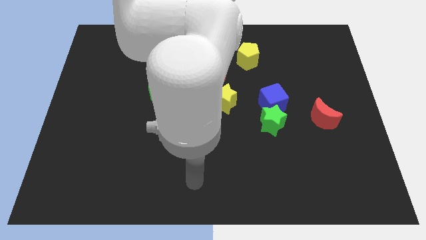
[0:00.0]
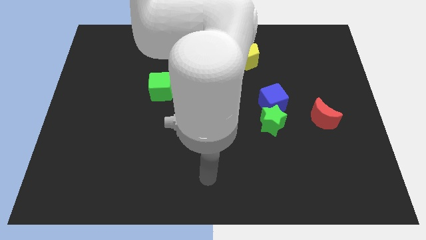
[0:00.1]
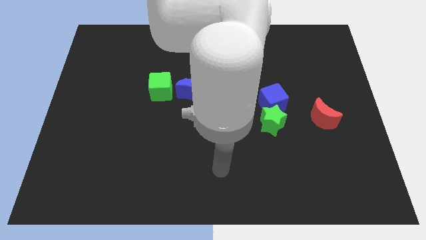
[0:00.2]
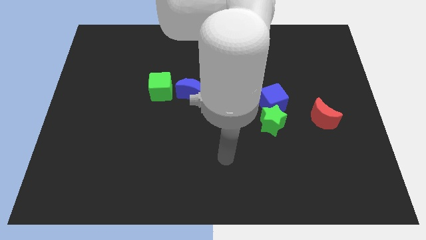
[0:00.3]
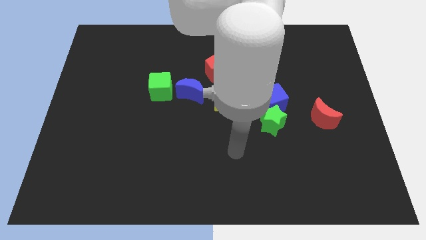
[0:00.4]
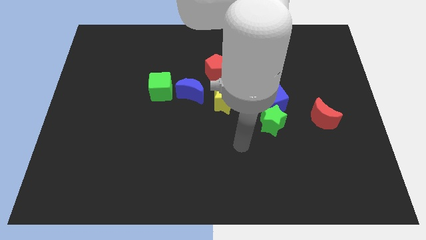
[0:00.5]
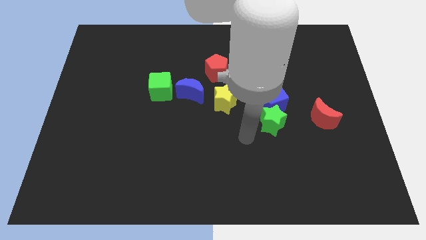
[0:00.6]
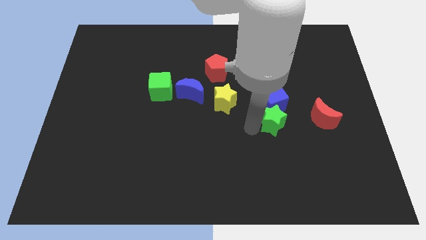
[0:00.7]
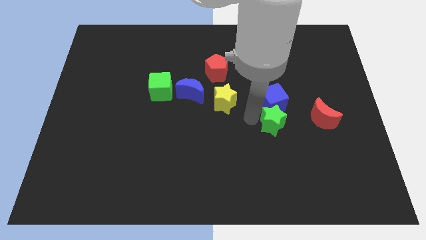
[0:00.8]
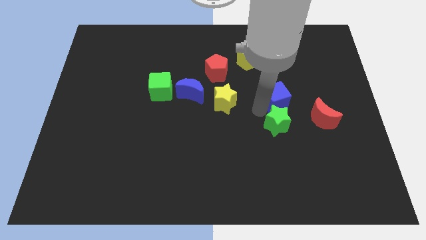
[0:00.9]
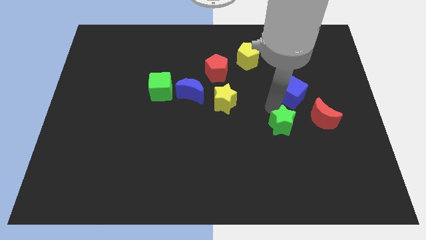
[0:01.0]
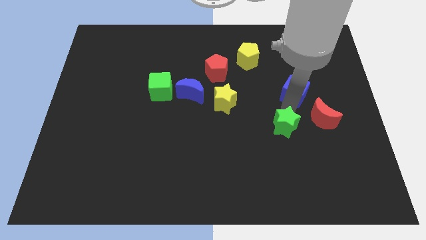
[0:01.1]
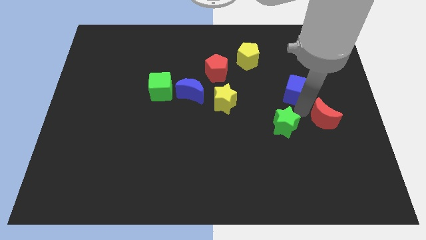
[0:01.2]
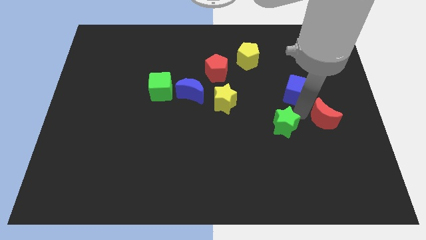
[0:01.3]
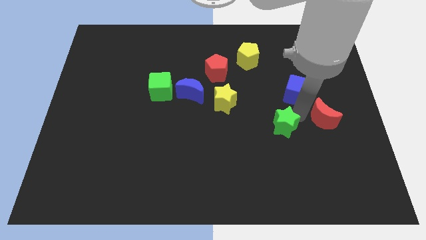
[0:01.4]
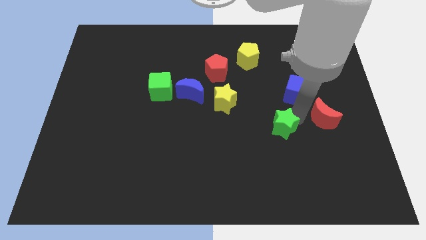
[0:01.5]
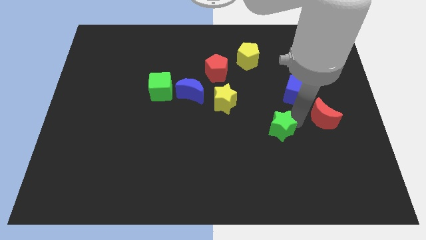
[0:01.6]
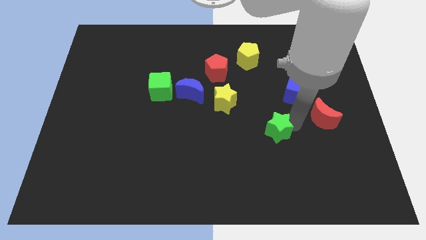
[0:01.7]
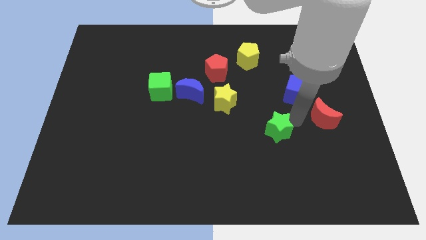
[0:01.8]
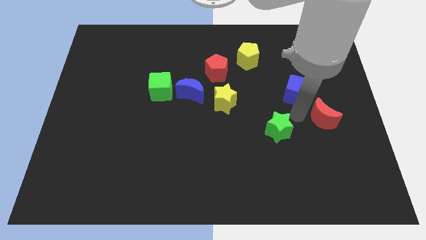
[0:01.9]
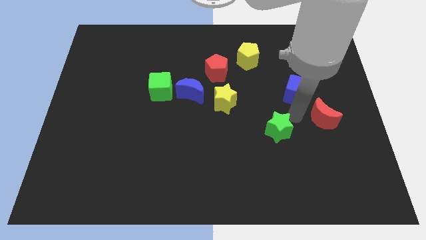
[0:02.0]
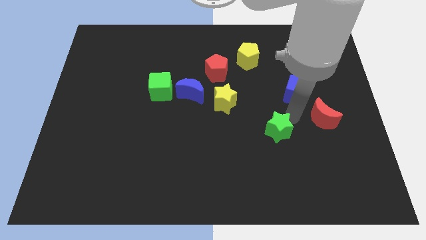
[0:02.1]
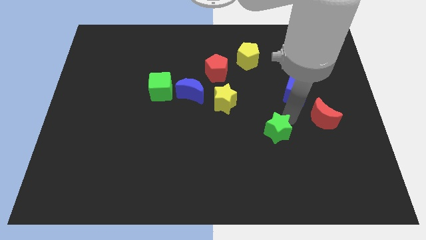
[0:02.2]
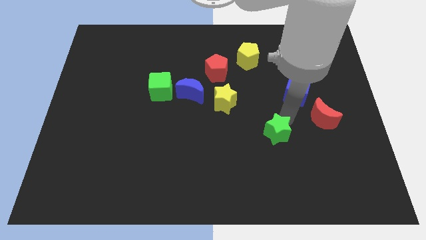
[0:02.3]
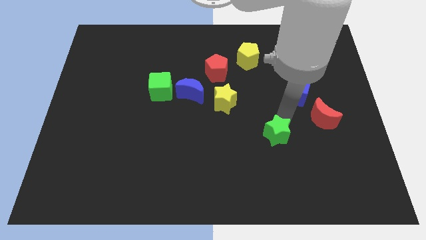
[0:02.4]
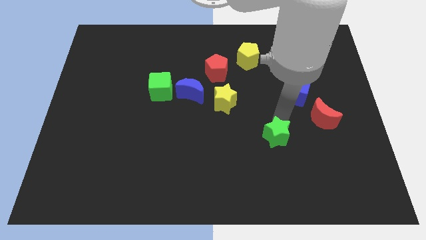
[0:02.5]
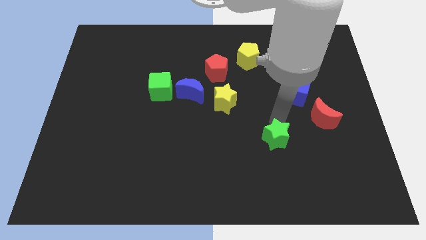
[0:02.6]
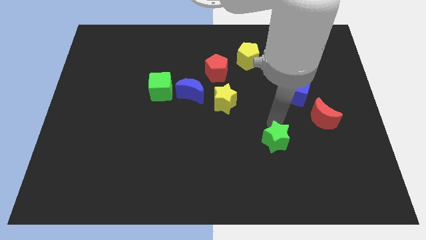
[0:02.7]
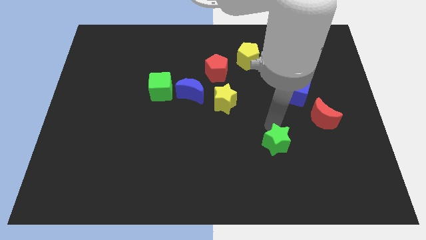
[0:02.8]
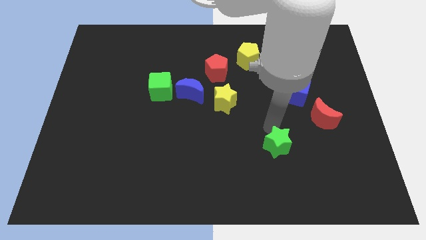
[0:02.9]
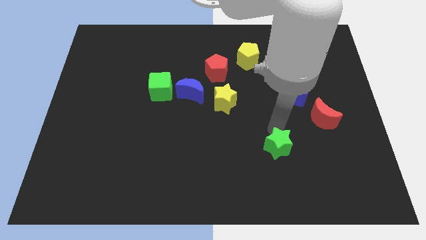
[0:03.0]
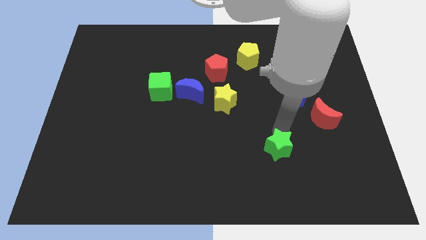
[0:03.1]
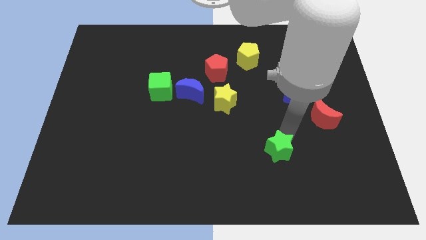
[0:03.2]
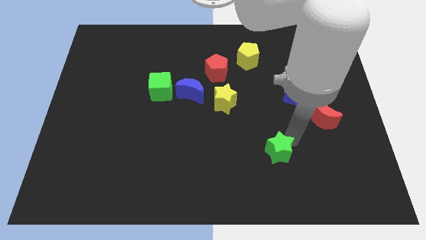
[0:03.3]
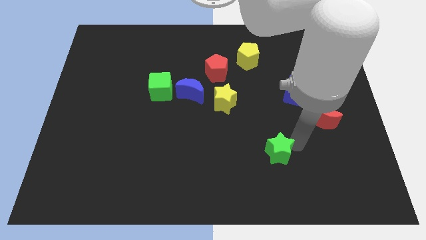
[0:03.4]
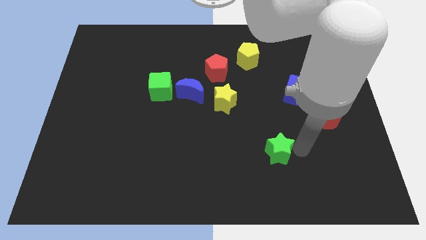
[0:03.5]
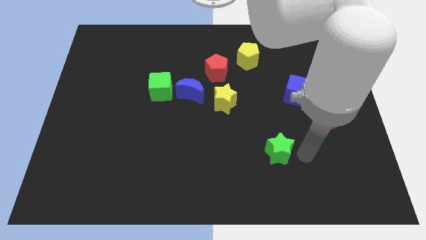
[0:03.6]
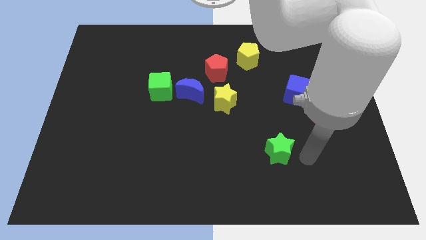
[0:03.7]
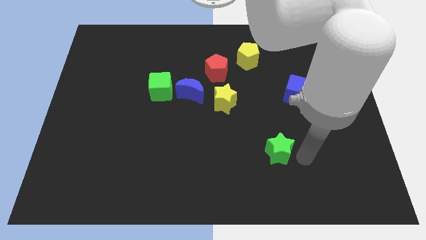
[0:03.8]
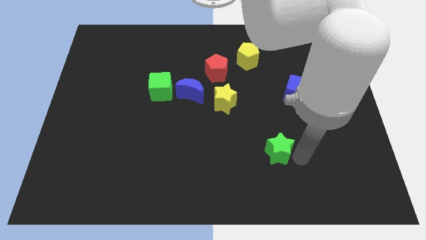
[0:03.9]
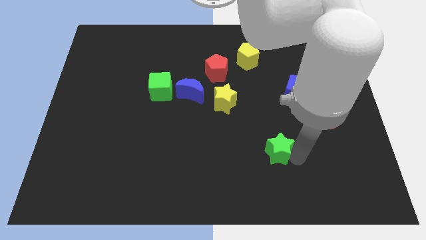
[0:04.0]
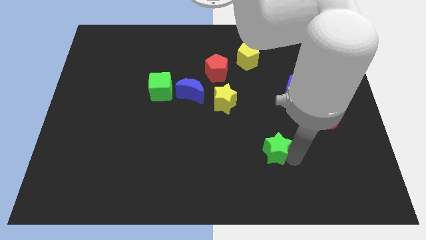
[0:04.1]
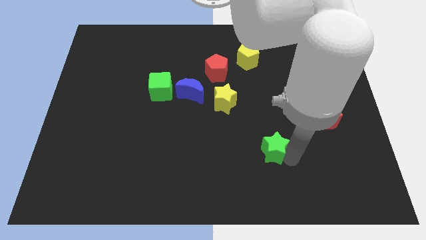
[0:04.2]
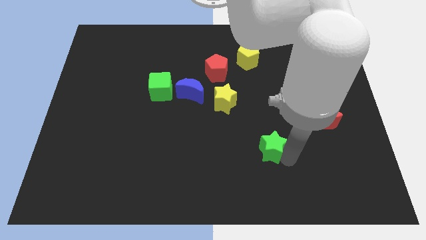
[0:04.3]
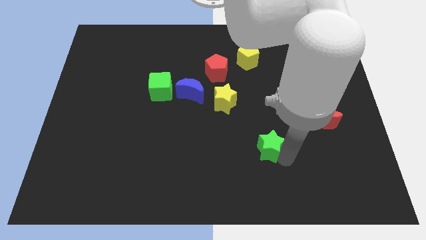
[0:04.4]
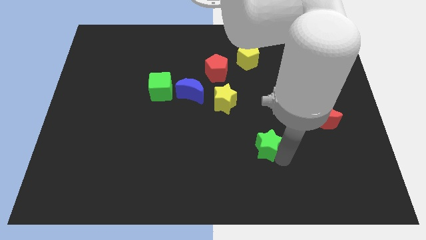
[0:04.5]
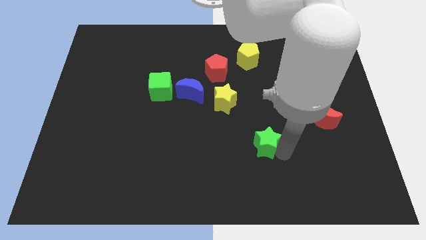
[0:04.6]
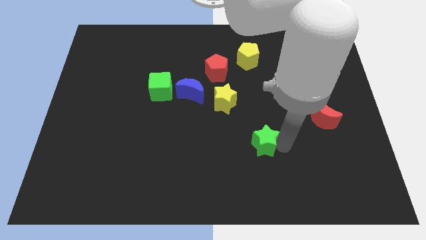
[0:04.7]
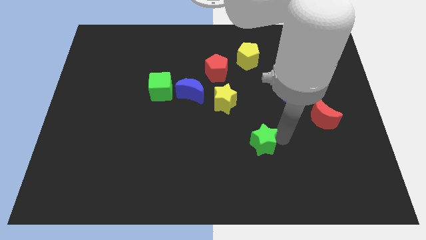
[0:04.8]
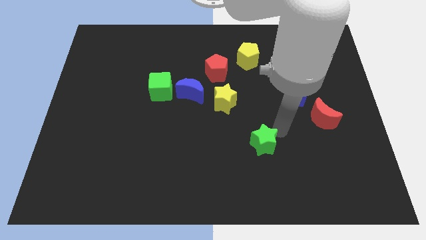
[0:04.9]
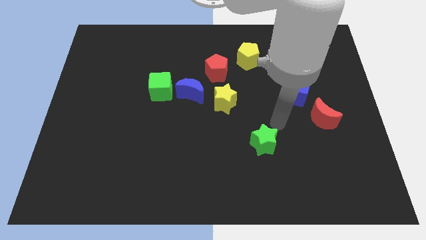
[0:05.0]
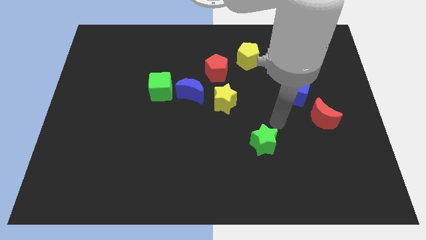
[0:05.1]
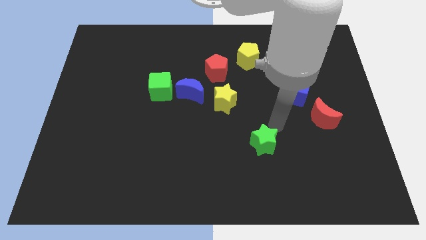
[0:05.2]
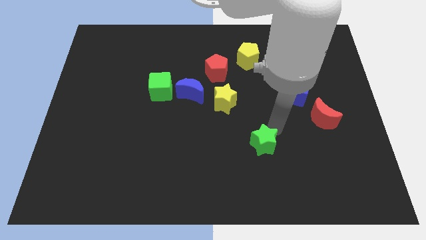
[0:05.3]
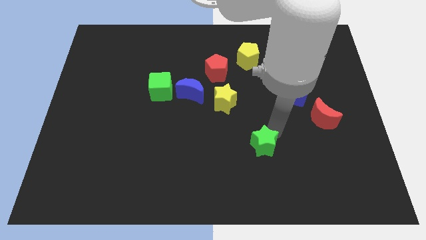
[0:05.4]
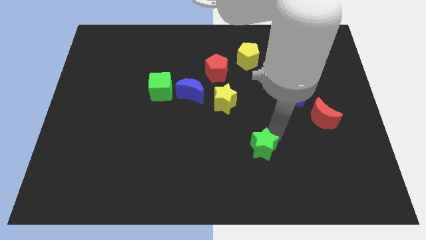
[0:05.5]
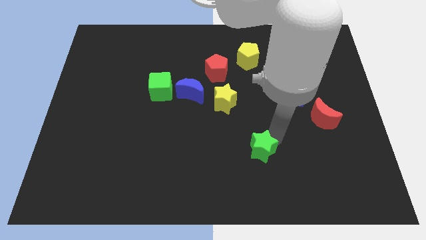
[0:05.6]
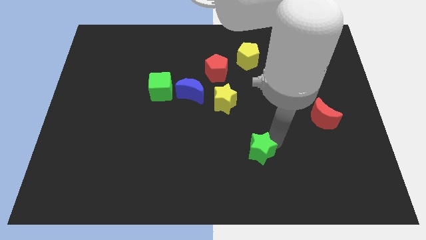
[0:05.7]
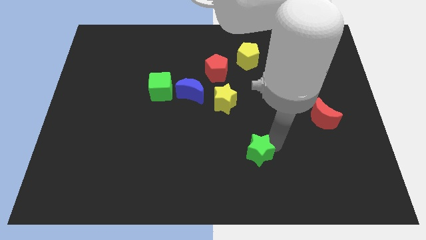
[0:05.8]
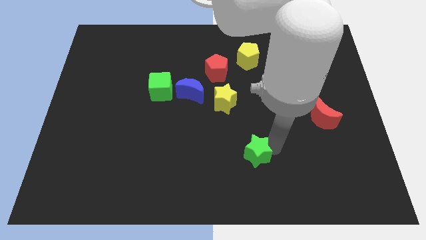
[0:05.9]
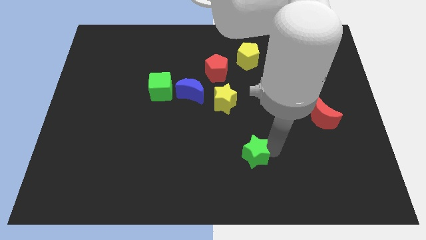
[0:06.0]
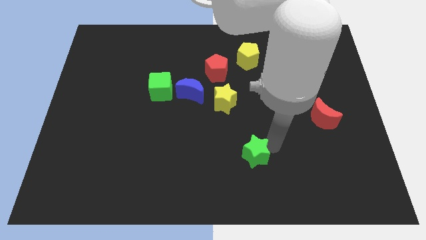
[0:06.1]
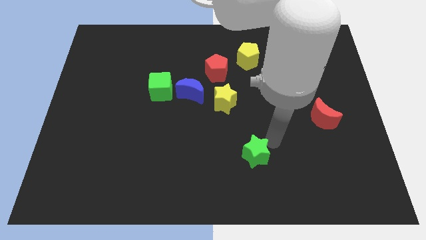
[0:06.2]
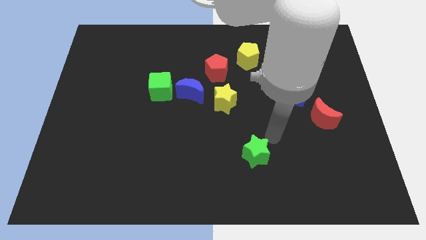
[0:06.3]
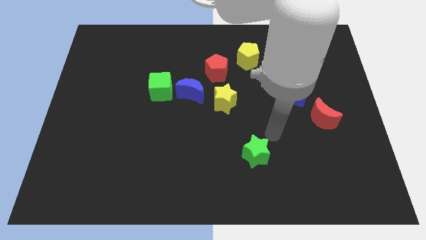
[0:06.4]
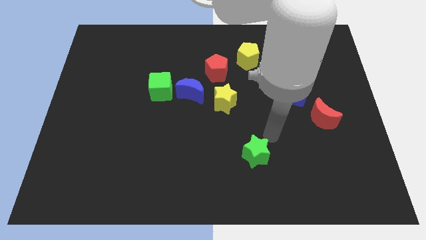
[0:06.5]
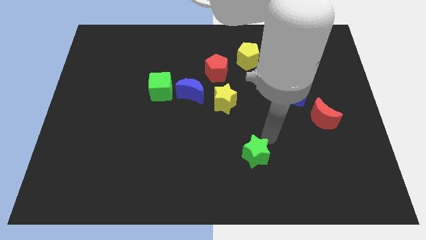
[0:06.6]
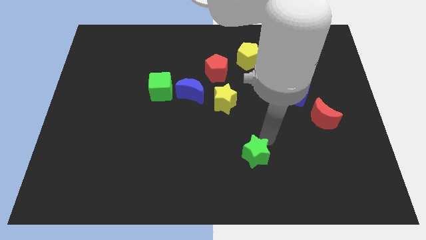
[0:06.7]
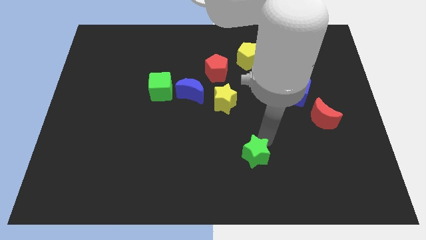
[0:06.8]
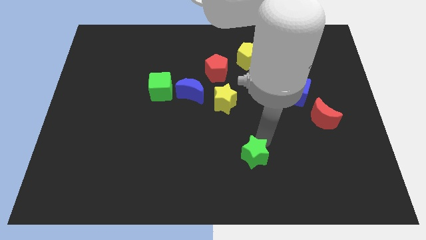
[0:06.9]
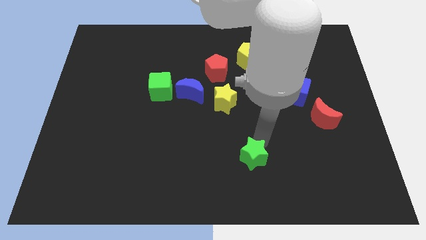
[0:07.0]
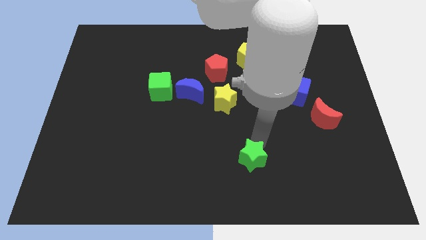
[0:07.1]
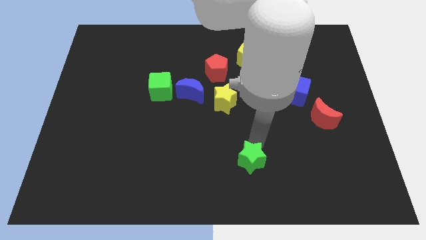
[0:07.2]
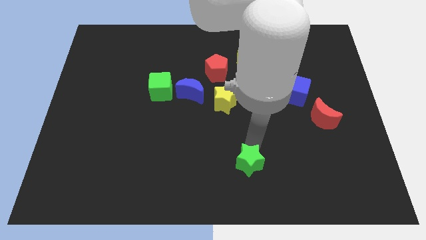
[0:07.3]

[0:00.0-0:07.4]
move the green star to the bottom
